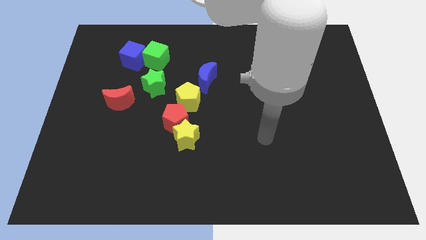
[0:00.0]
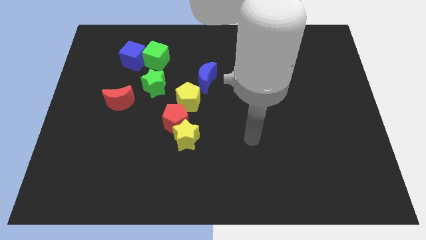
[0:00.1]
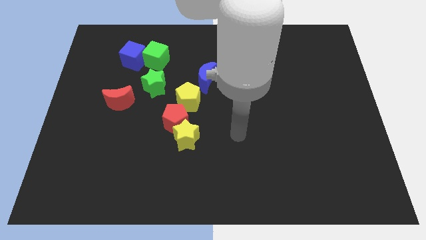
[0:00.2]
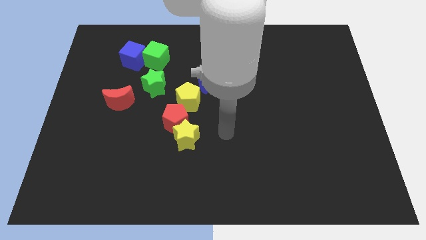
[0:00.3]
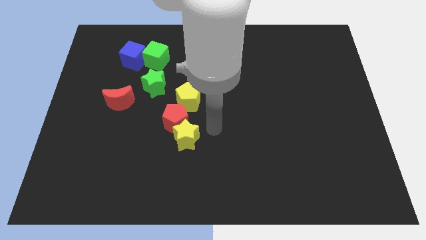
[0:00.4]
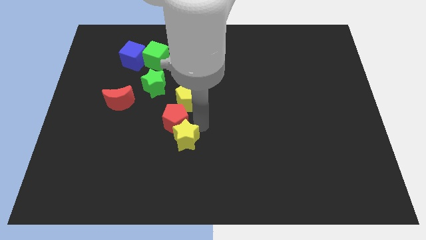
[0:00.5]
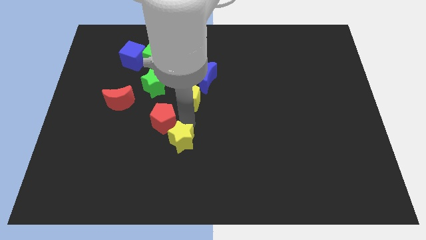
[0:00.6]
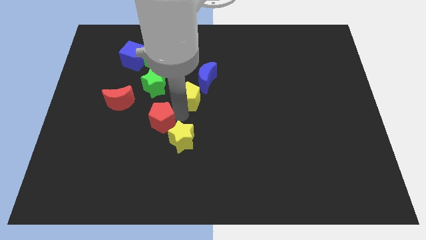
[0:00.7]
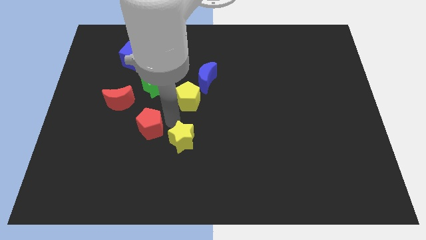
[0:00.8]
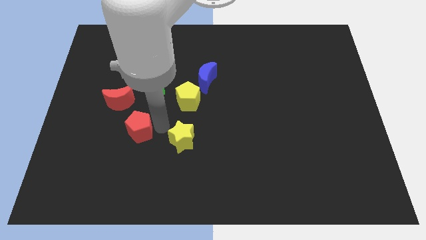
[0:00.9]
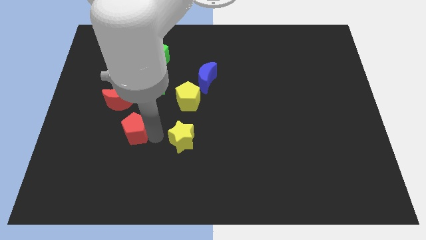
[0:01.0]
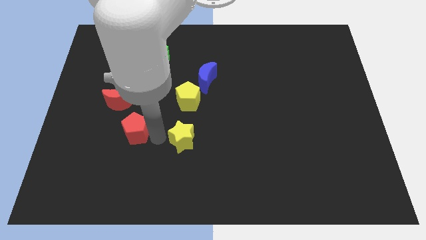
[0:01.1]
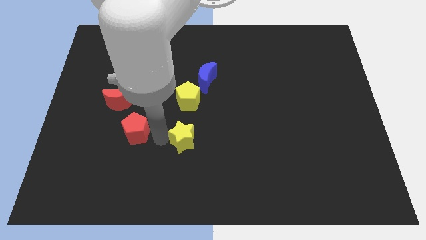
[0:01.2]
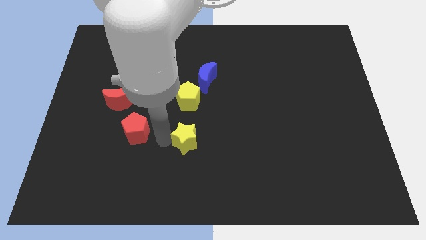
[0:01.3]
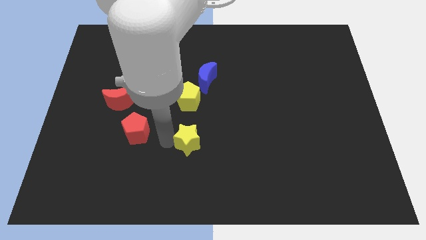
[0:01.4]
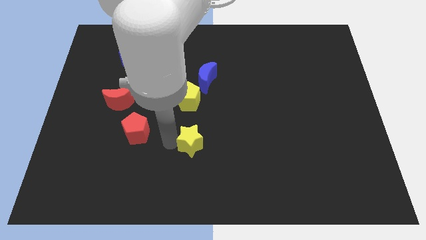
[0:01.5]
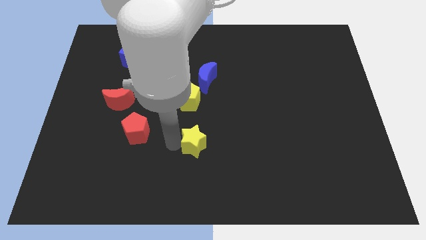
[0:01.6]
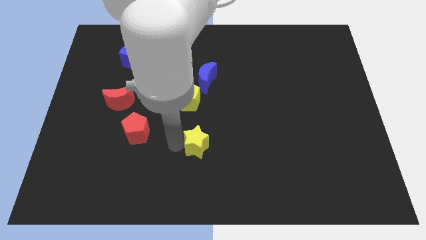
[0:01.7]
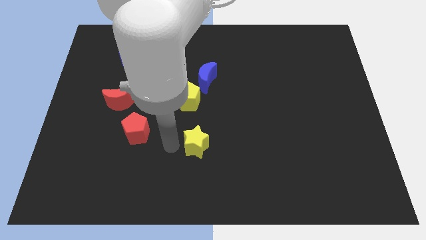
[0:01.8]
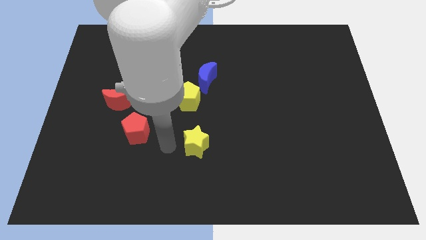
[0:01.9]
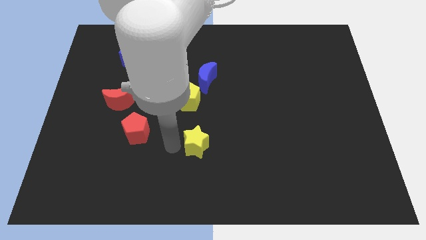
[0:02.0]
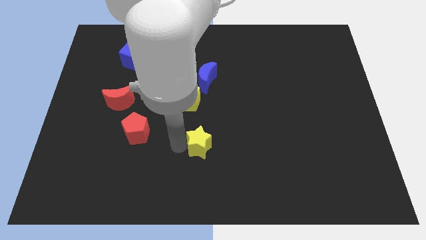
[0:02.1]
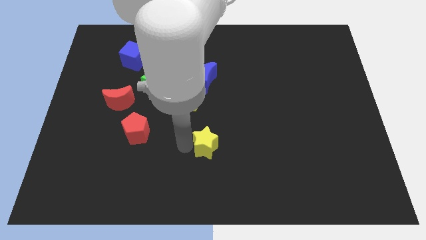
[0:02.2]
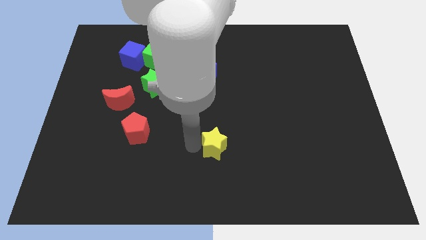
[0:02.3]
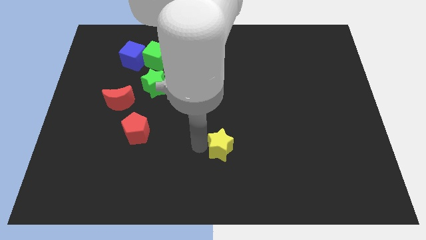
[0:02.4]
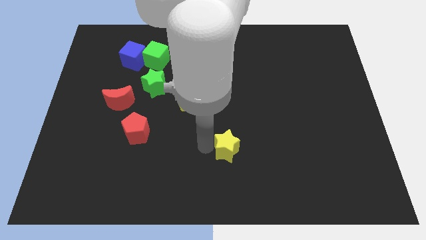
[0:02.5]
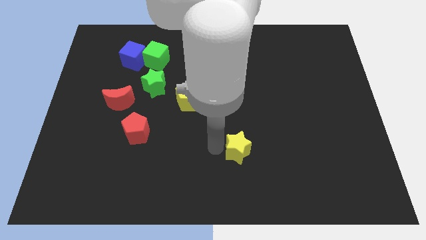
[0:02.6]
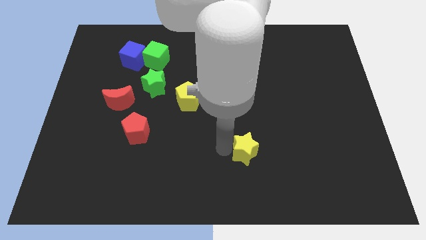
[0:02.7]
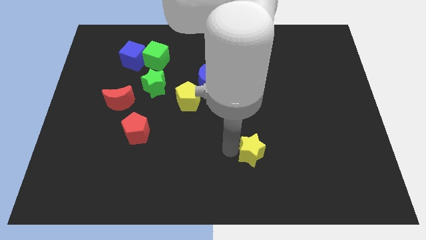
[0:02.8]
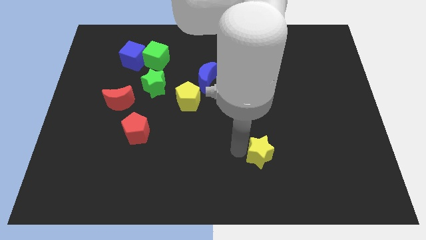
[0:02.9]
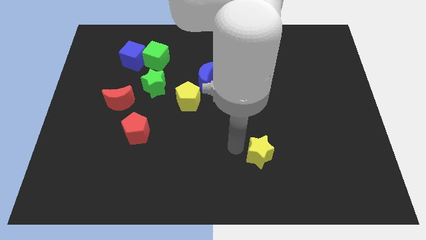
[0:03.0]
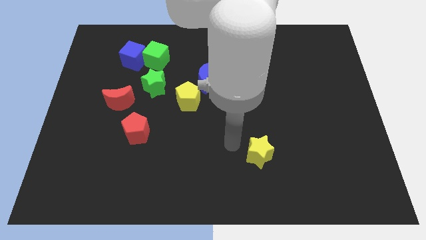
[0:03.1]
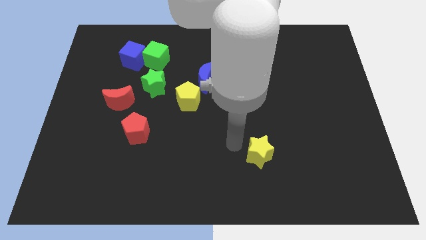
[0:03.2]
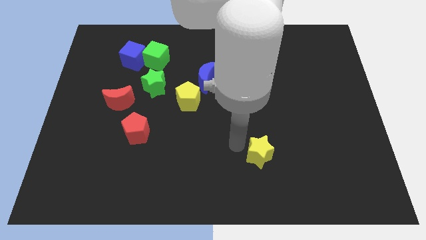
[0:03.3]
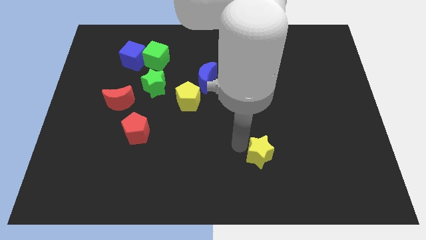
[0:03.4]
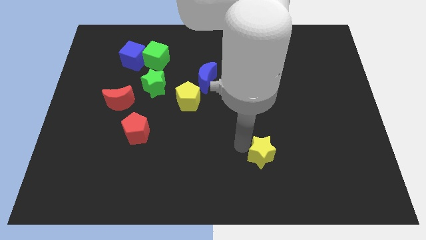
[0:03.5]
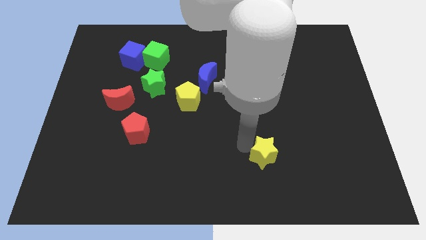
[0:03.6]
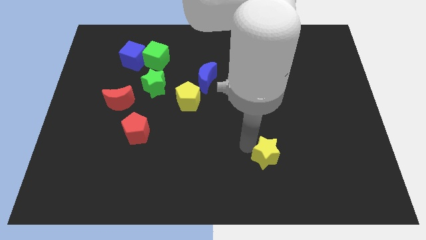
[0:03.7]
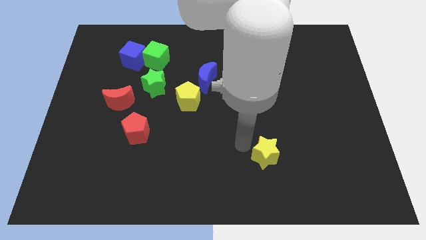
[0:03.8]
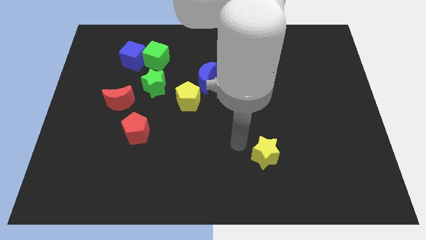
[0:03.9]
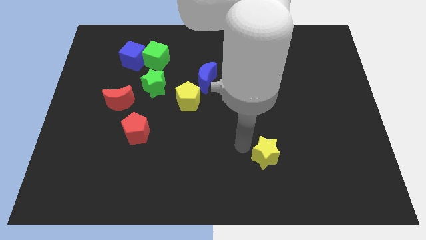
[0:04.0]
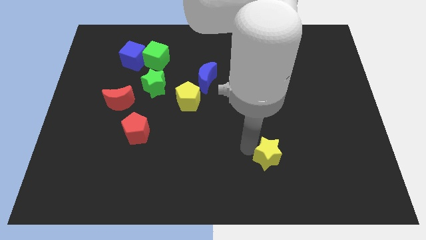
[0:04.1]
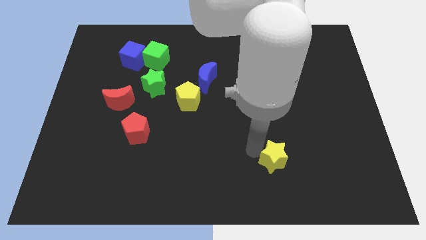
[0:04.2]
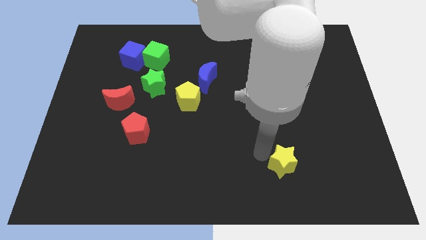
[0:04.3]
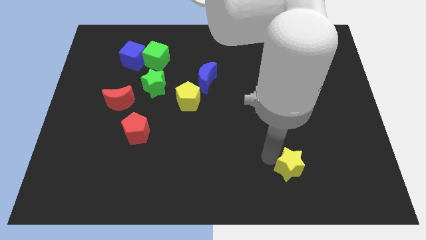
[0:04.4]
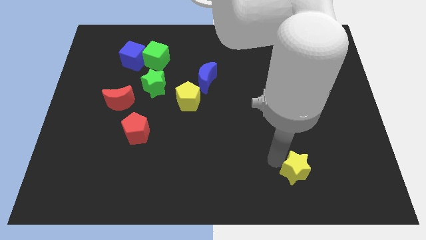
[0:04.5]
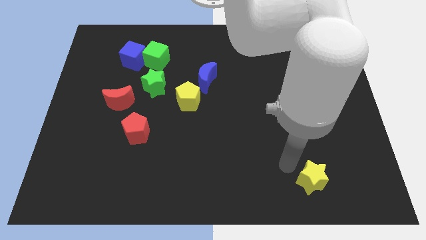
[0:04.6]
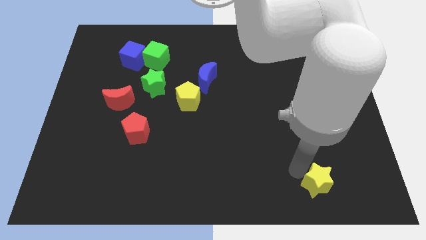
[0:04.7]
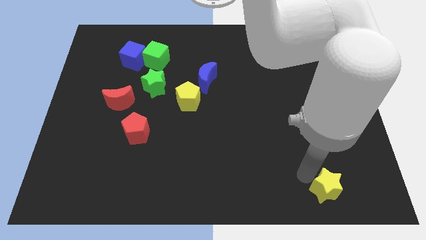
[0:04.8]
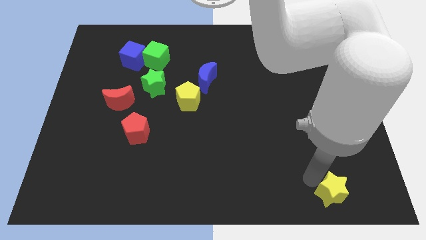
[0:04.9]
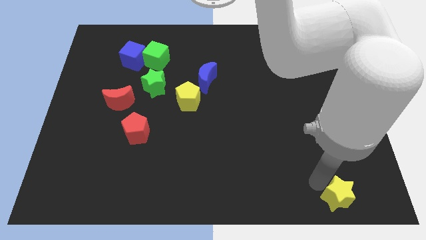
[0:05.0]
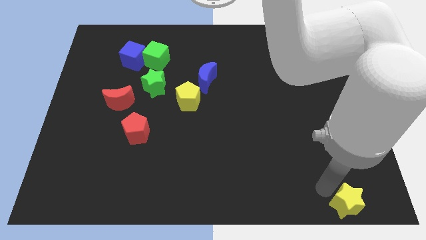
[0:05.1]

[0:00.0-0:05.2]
slide the yellow star to the bottom right
